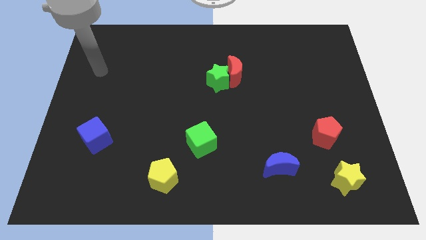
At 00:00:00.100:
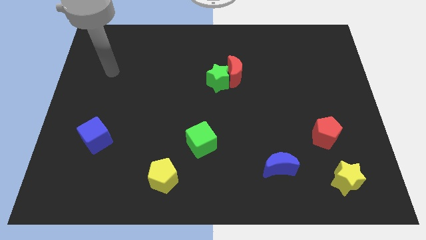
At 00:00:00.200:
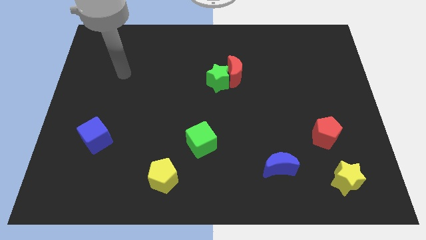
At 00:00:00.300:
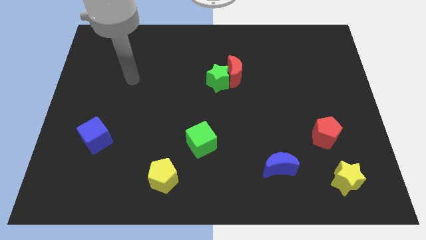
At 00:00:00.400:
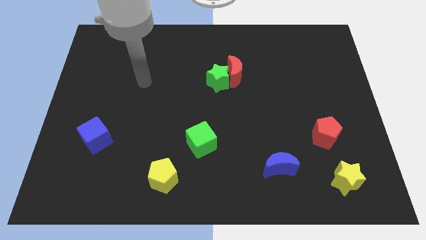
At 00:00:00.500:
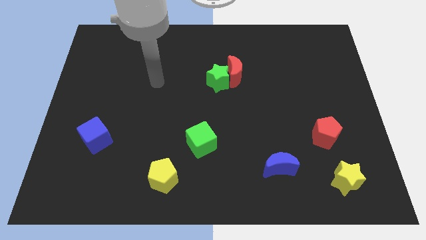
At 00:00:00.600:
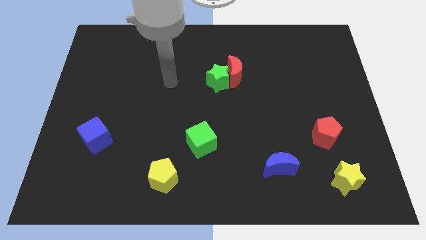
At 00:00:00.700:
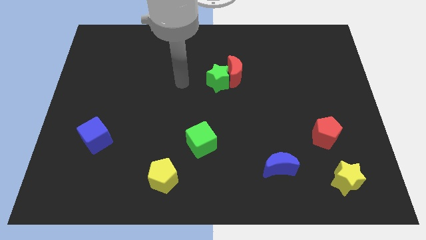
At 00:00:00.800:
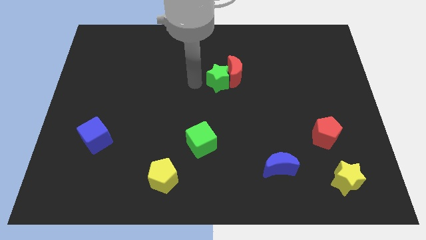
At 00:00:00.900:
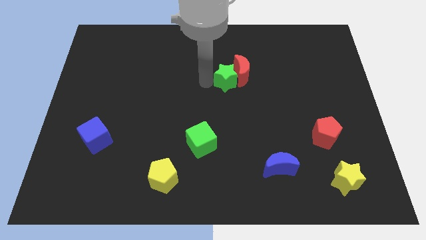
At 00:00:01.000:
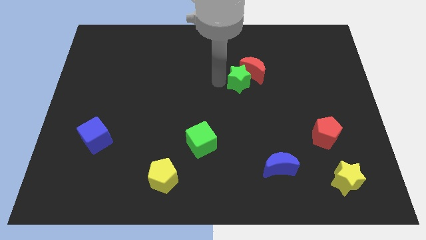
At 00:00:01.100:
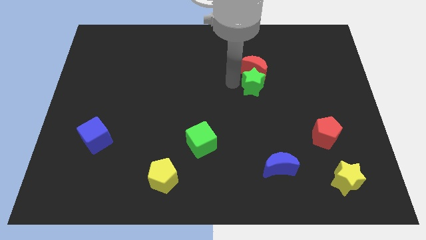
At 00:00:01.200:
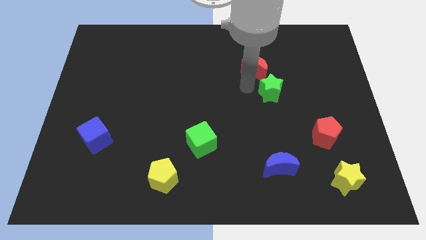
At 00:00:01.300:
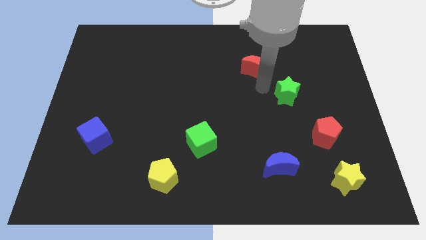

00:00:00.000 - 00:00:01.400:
pull the red moon apart from the green star

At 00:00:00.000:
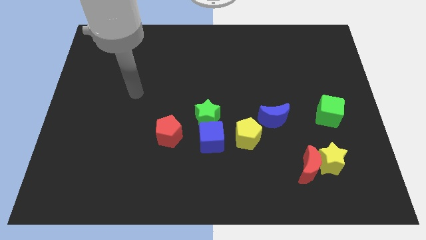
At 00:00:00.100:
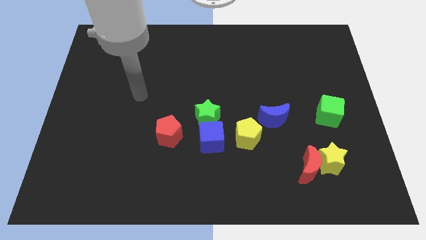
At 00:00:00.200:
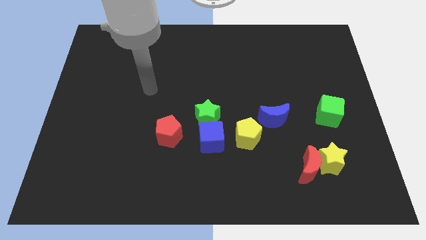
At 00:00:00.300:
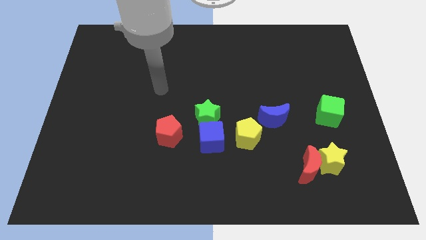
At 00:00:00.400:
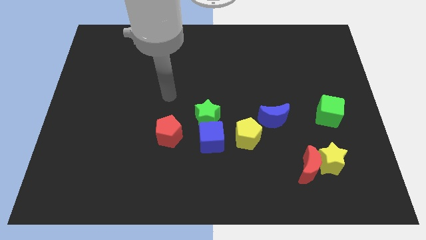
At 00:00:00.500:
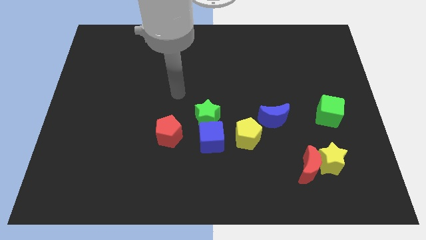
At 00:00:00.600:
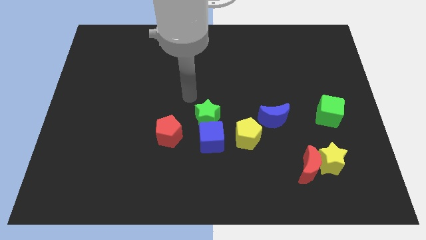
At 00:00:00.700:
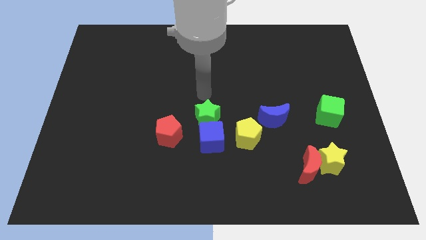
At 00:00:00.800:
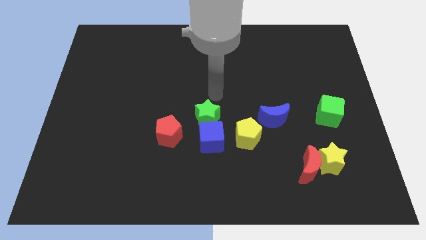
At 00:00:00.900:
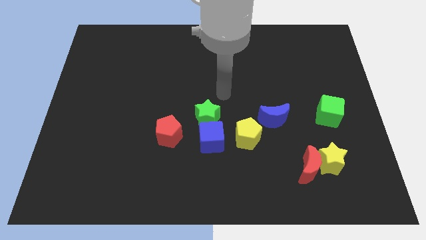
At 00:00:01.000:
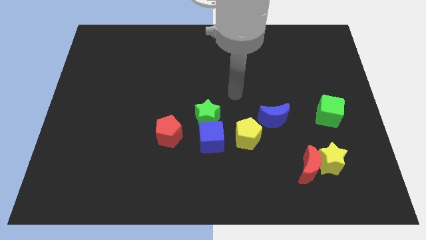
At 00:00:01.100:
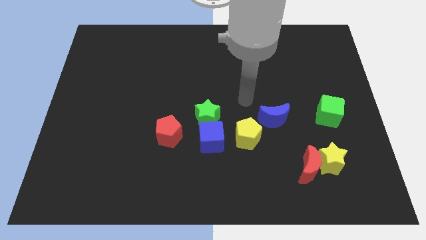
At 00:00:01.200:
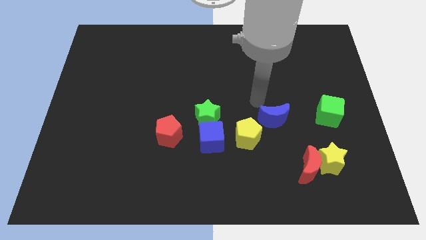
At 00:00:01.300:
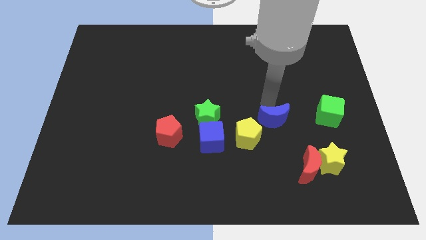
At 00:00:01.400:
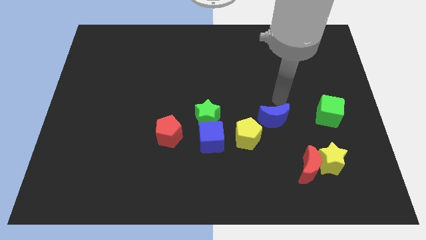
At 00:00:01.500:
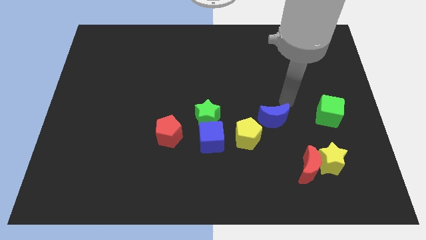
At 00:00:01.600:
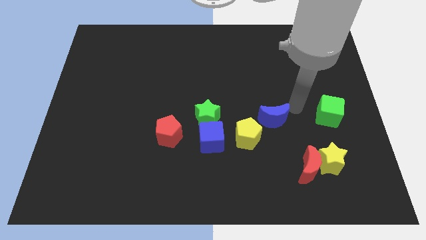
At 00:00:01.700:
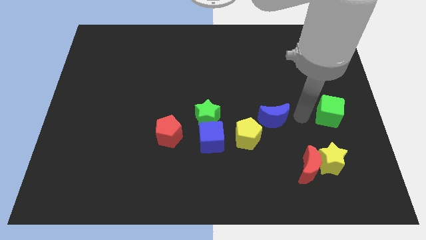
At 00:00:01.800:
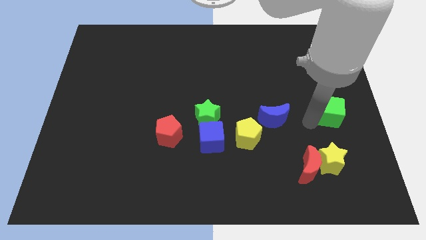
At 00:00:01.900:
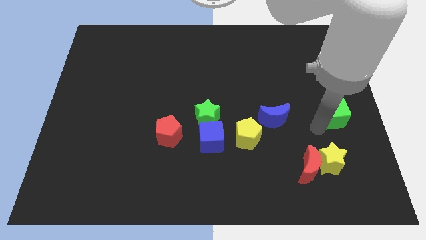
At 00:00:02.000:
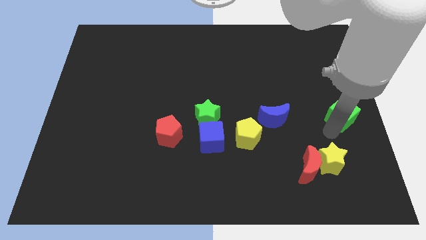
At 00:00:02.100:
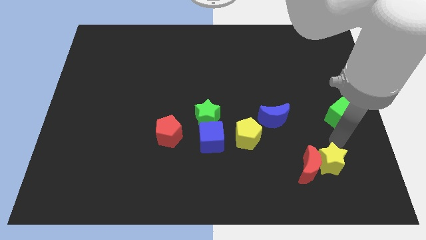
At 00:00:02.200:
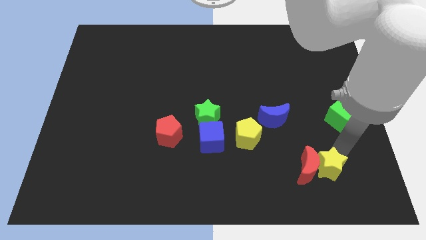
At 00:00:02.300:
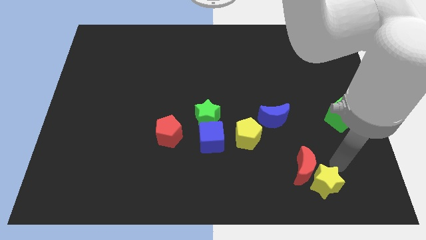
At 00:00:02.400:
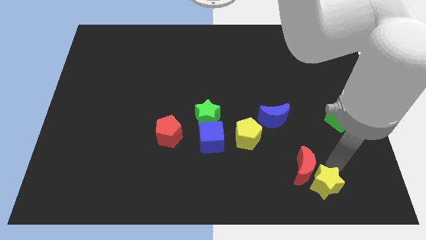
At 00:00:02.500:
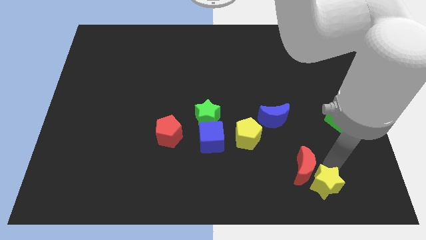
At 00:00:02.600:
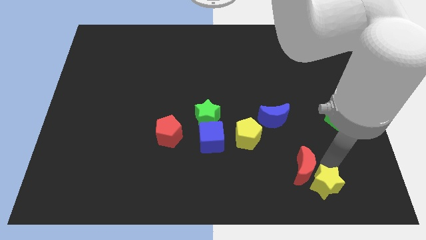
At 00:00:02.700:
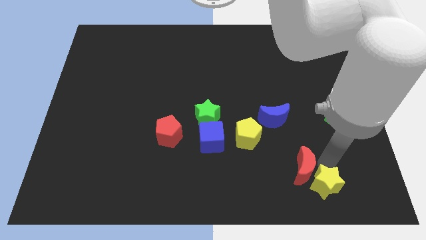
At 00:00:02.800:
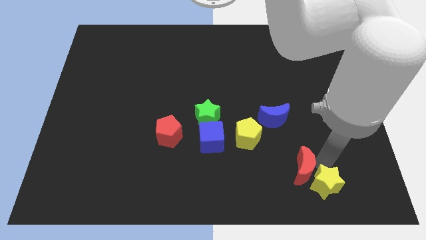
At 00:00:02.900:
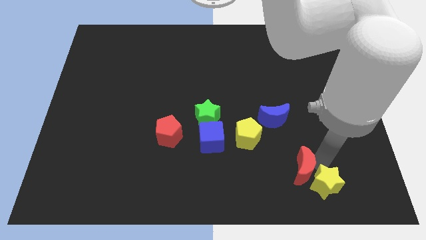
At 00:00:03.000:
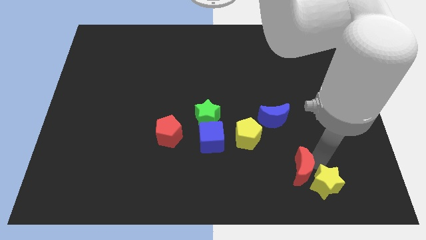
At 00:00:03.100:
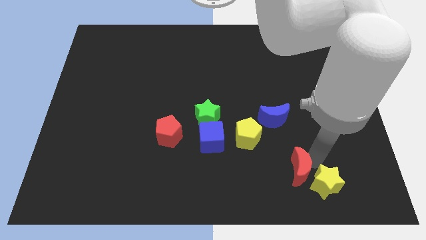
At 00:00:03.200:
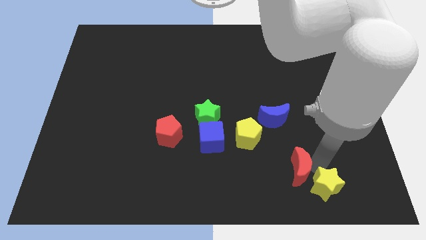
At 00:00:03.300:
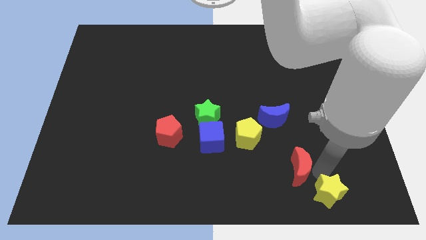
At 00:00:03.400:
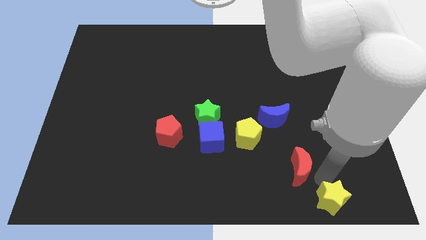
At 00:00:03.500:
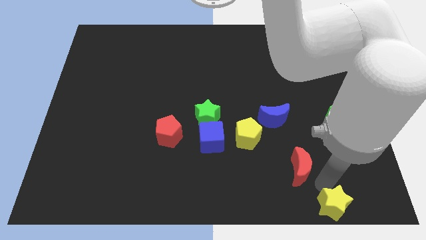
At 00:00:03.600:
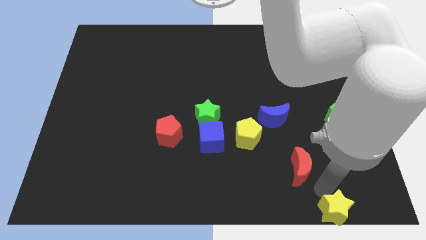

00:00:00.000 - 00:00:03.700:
move the red moon away from the yellow star

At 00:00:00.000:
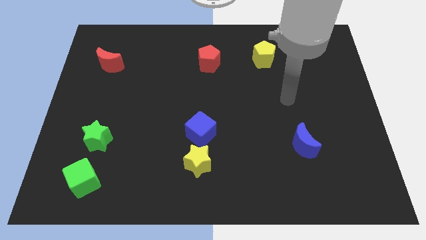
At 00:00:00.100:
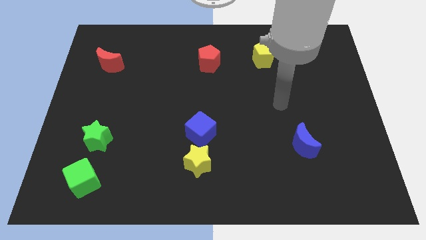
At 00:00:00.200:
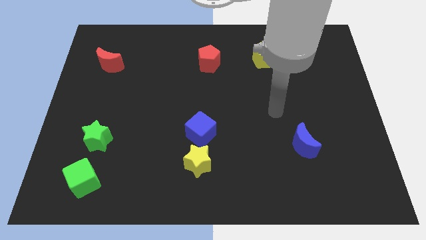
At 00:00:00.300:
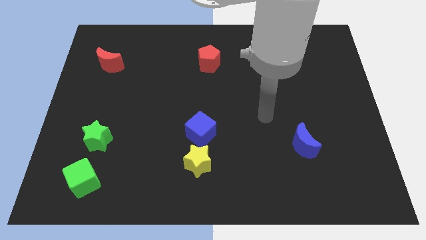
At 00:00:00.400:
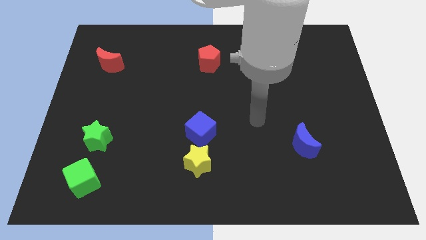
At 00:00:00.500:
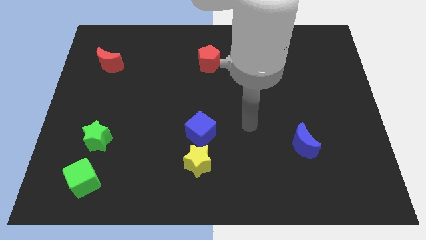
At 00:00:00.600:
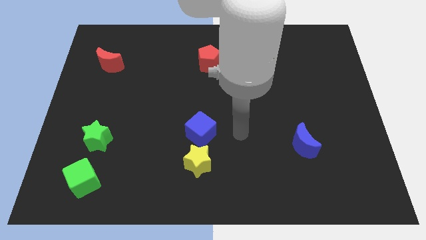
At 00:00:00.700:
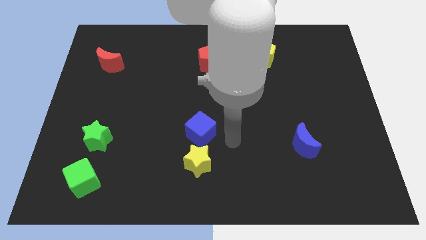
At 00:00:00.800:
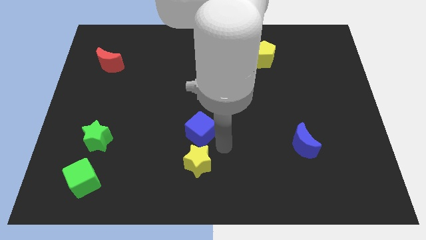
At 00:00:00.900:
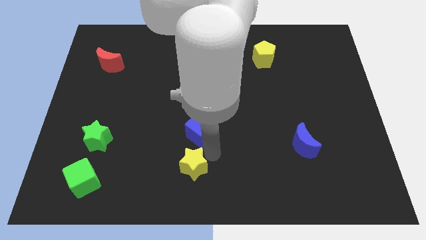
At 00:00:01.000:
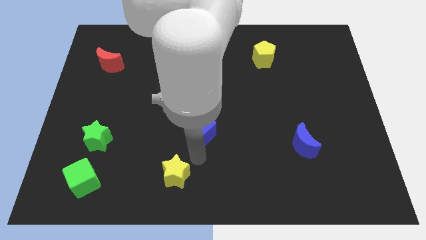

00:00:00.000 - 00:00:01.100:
move the blue cube away from the yellow star

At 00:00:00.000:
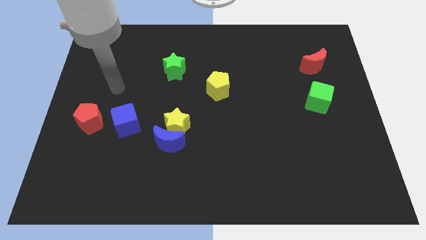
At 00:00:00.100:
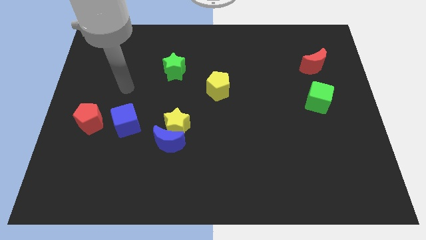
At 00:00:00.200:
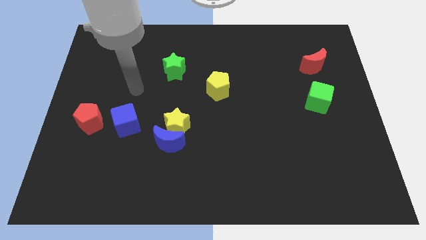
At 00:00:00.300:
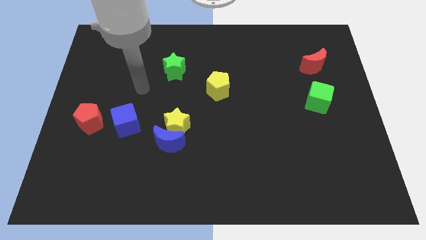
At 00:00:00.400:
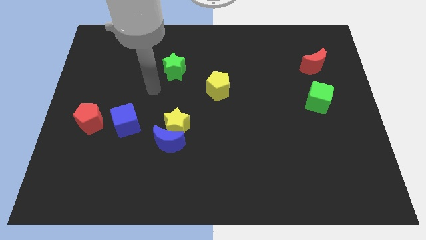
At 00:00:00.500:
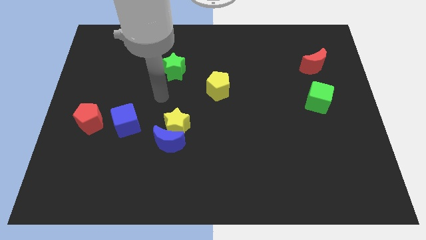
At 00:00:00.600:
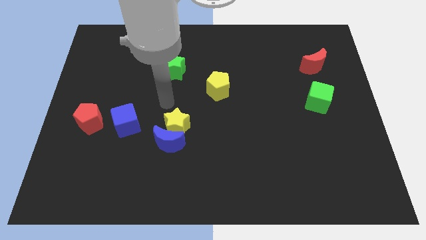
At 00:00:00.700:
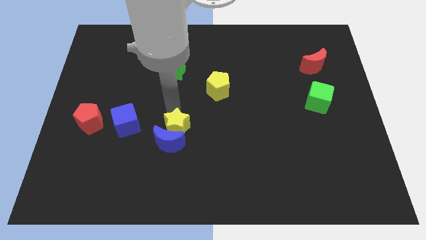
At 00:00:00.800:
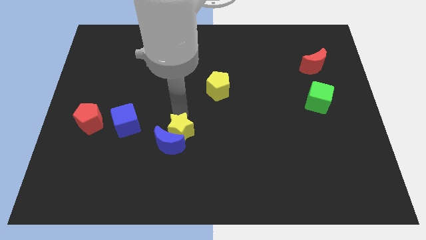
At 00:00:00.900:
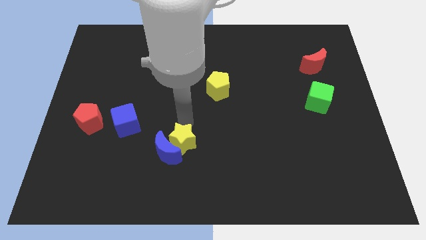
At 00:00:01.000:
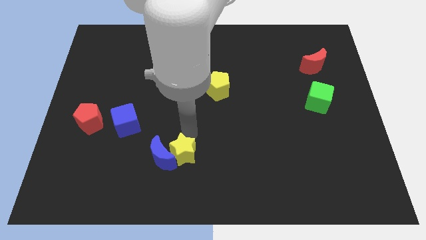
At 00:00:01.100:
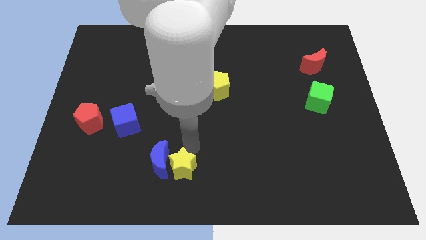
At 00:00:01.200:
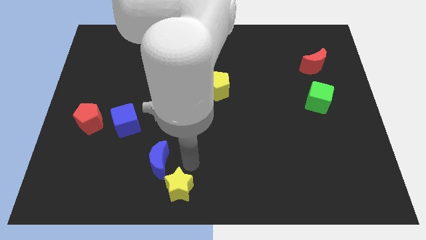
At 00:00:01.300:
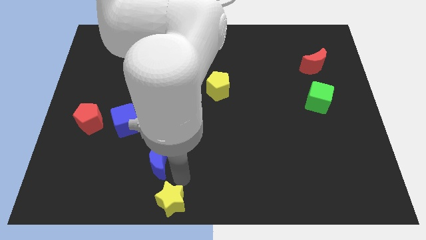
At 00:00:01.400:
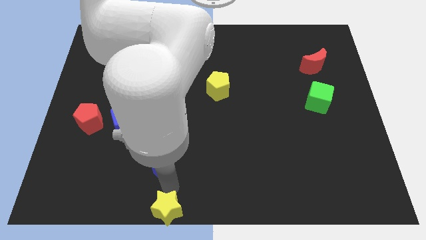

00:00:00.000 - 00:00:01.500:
separate the blue moon from the yellow star

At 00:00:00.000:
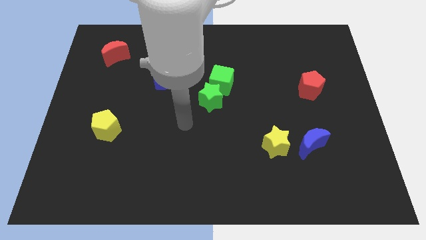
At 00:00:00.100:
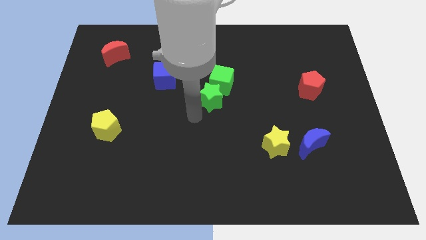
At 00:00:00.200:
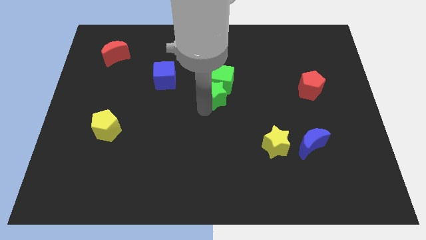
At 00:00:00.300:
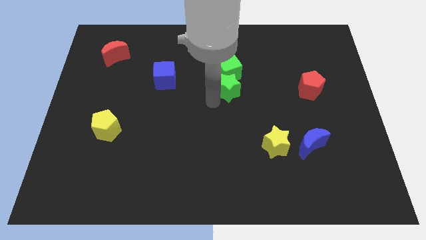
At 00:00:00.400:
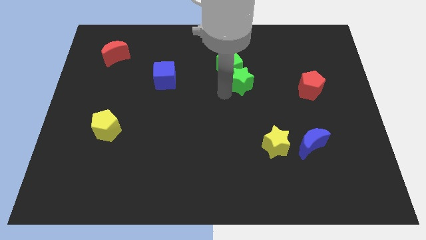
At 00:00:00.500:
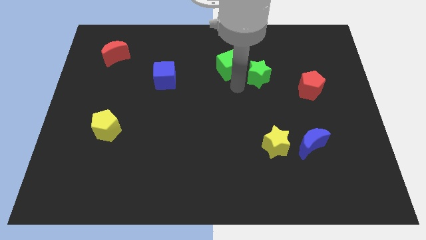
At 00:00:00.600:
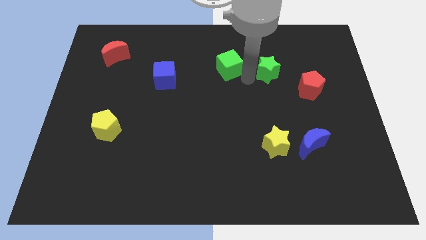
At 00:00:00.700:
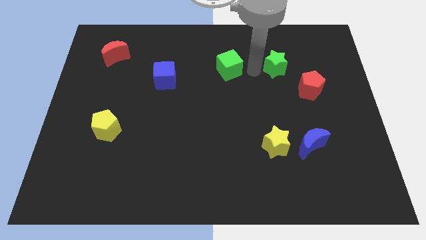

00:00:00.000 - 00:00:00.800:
separate the green cube from the green star

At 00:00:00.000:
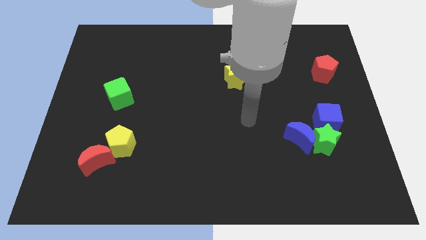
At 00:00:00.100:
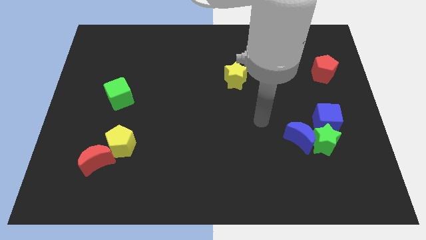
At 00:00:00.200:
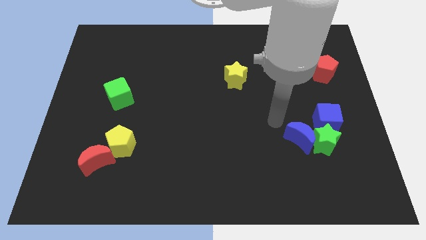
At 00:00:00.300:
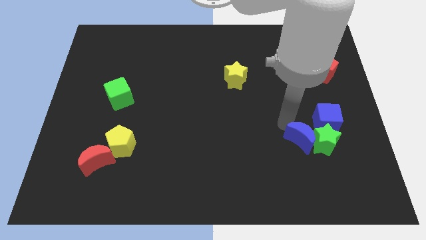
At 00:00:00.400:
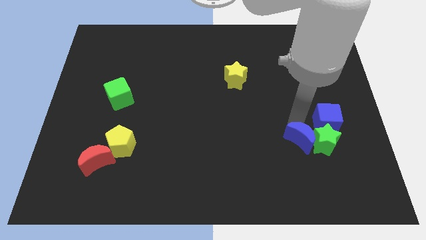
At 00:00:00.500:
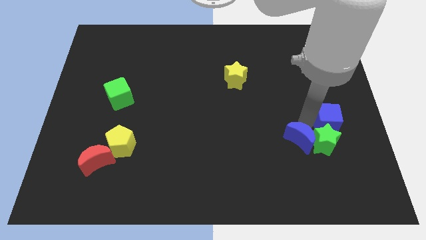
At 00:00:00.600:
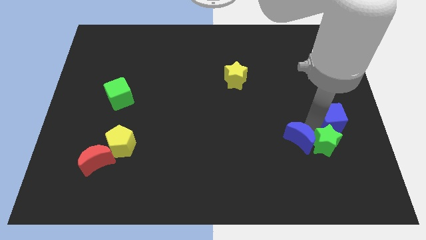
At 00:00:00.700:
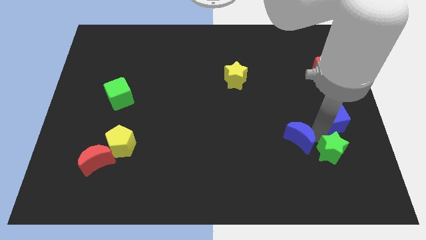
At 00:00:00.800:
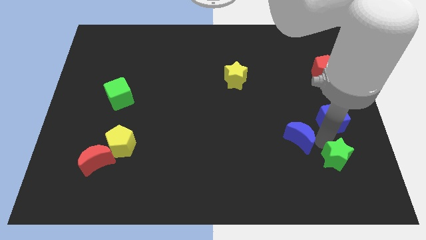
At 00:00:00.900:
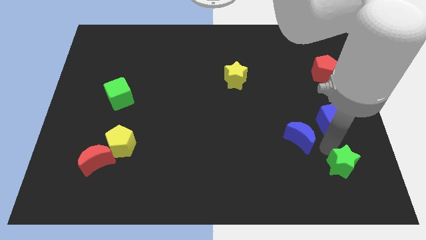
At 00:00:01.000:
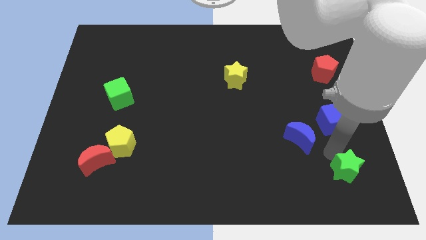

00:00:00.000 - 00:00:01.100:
pull the green star apart from the blue moon and blue cube
